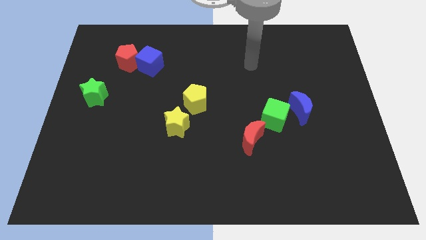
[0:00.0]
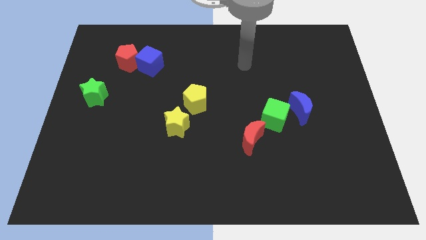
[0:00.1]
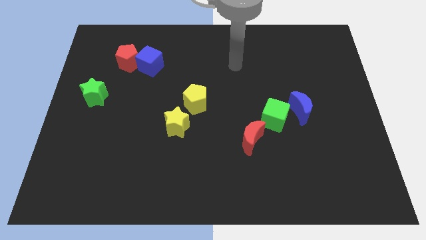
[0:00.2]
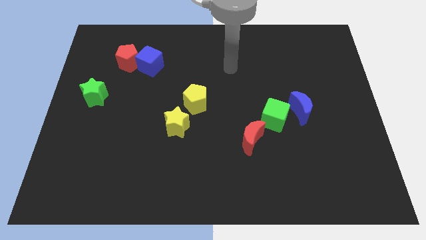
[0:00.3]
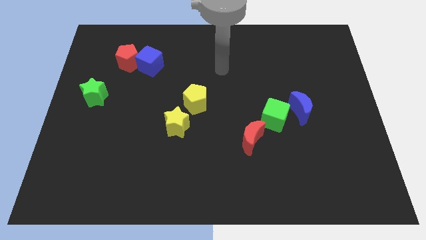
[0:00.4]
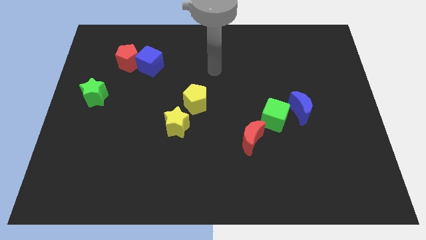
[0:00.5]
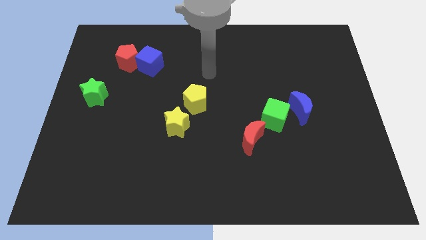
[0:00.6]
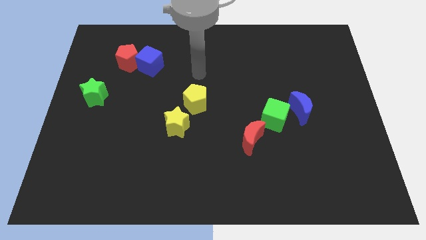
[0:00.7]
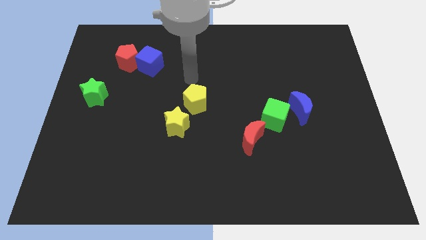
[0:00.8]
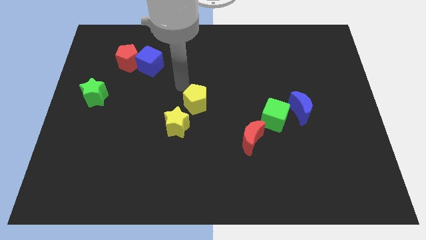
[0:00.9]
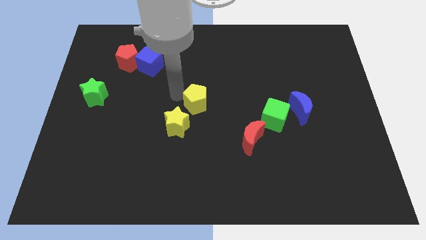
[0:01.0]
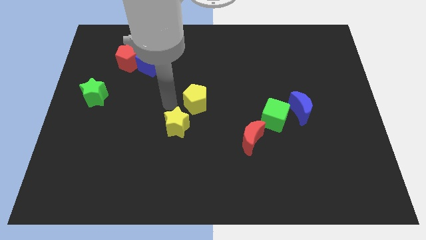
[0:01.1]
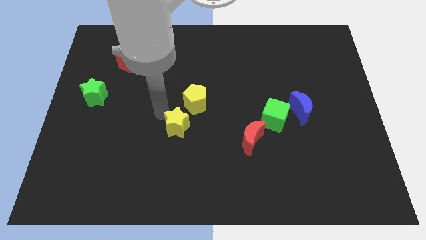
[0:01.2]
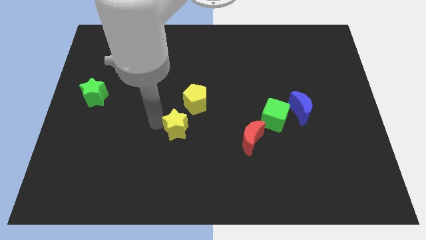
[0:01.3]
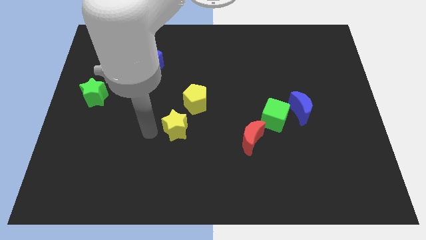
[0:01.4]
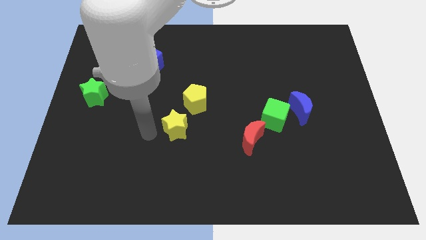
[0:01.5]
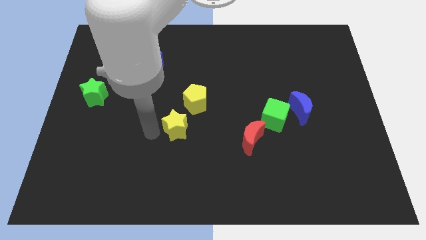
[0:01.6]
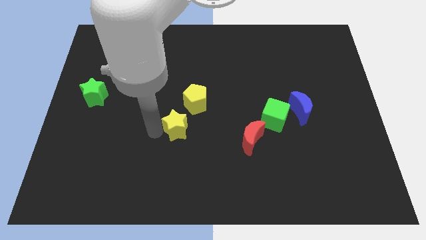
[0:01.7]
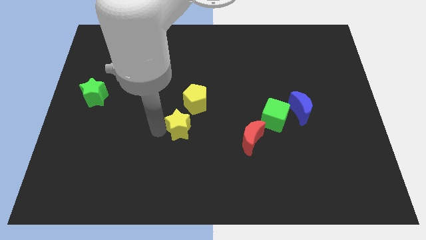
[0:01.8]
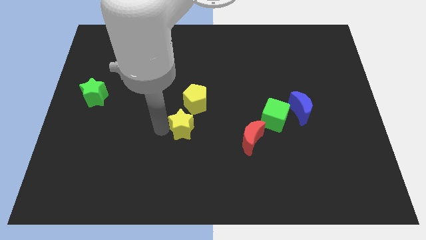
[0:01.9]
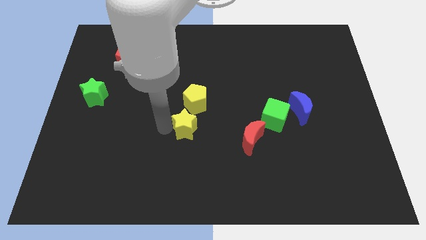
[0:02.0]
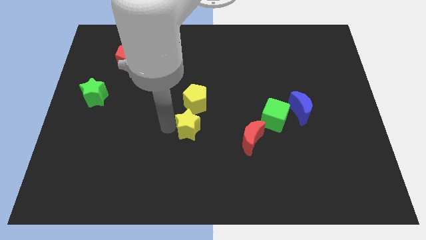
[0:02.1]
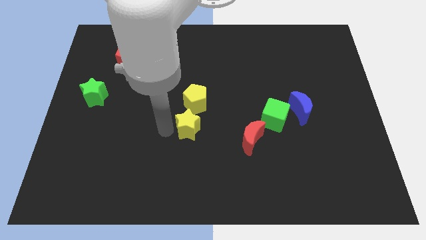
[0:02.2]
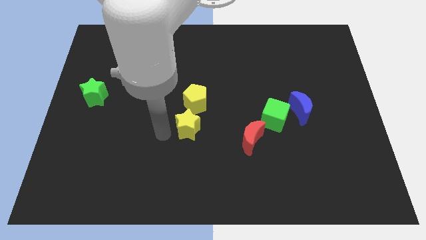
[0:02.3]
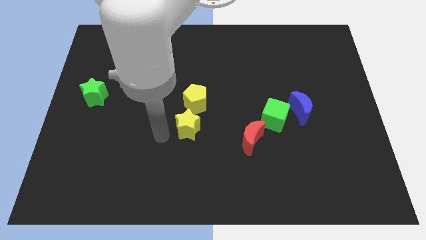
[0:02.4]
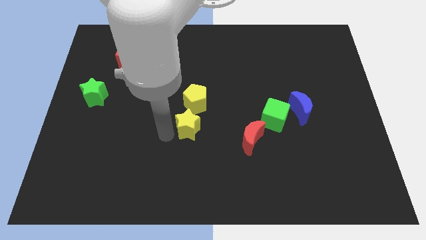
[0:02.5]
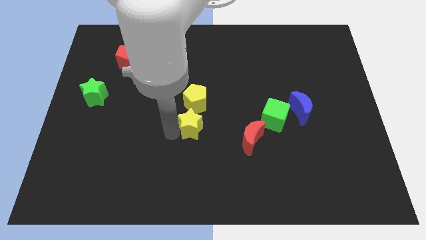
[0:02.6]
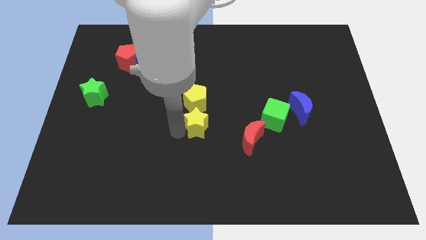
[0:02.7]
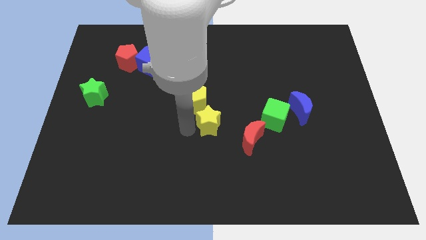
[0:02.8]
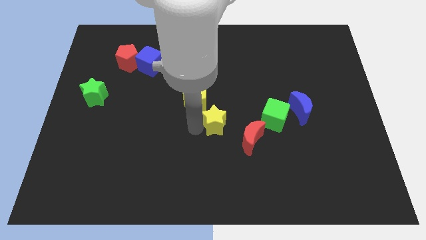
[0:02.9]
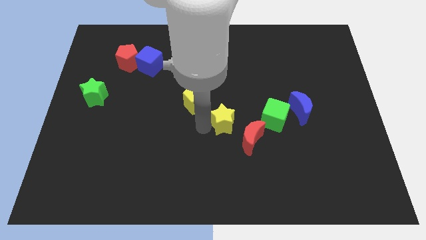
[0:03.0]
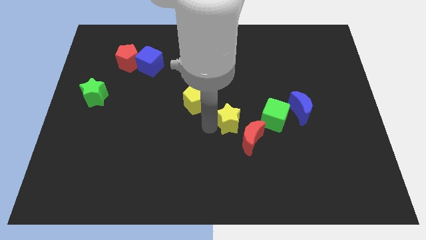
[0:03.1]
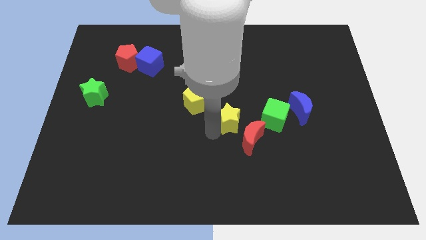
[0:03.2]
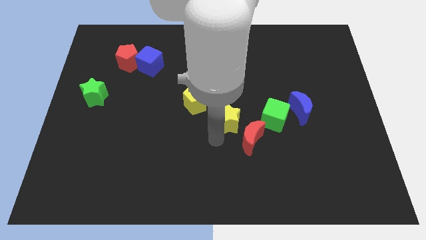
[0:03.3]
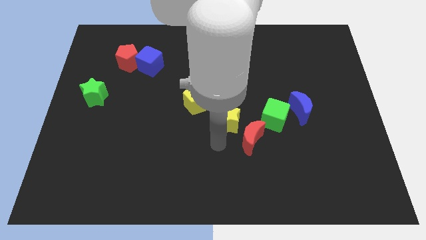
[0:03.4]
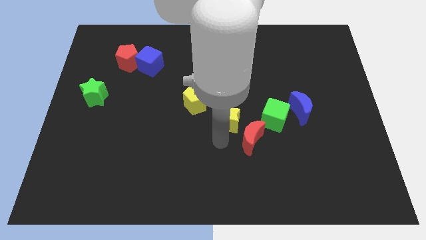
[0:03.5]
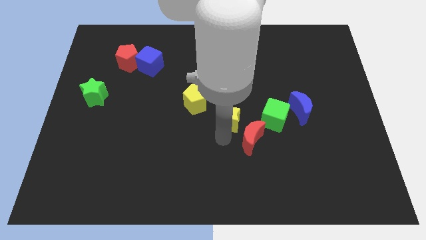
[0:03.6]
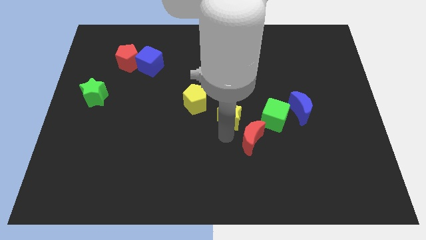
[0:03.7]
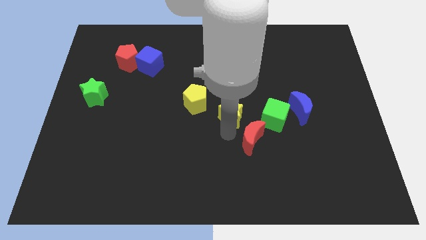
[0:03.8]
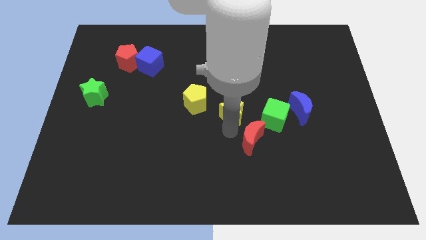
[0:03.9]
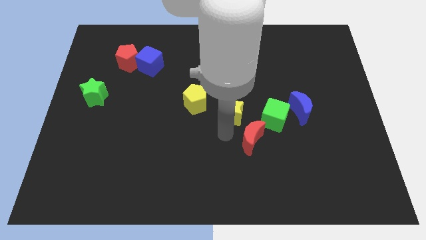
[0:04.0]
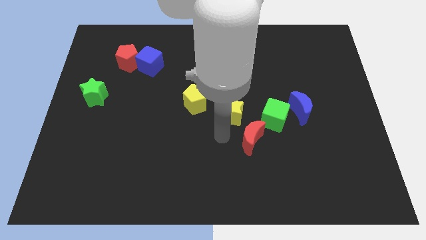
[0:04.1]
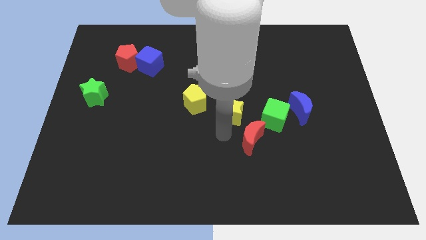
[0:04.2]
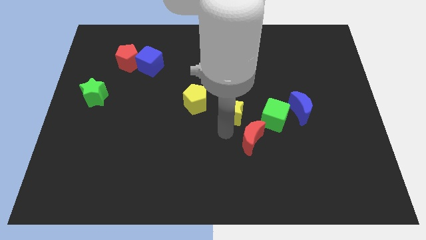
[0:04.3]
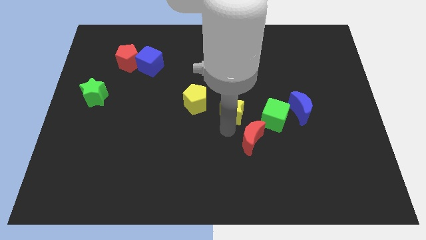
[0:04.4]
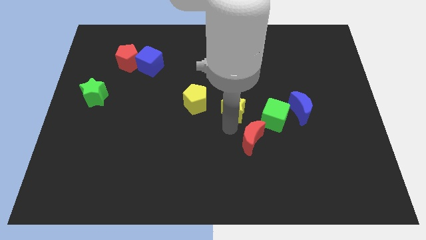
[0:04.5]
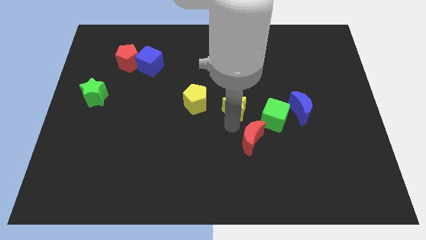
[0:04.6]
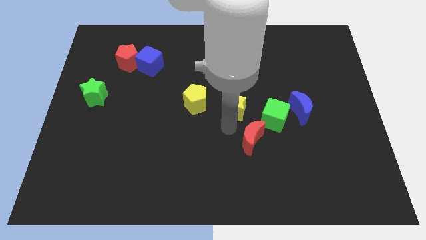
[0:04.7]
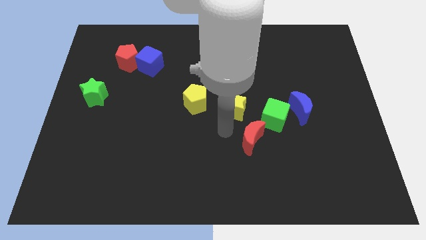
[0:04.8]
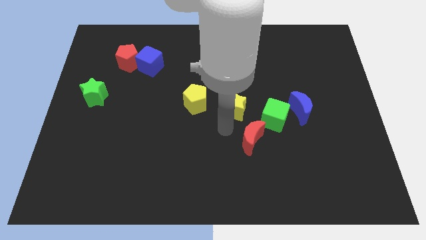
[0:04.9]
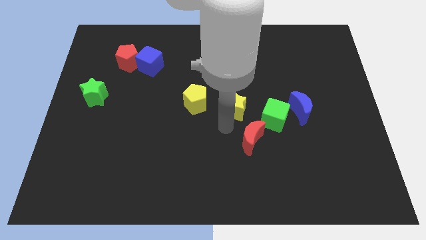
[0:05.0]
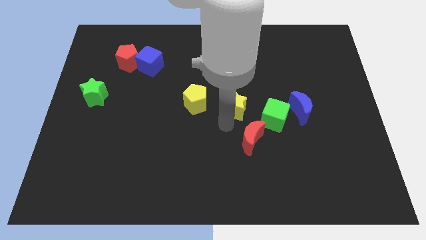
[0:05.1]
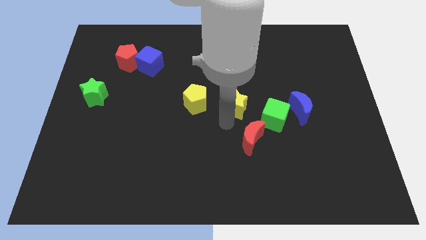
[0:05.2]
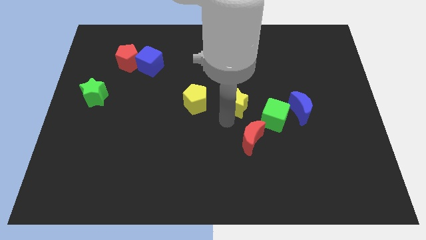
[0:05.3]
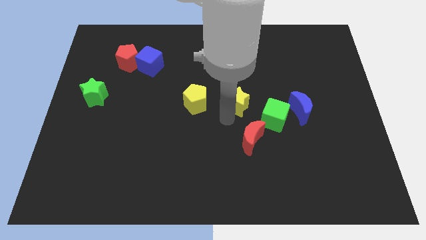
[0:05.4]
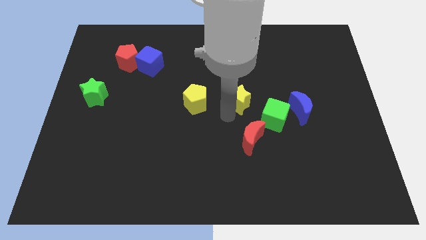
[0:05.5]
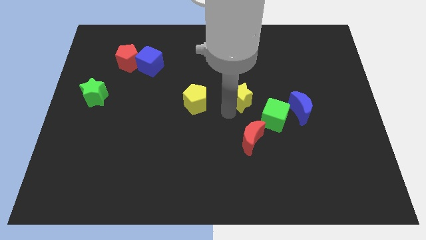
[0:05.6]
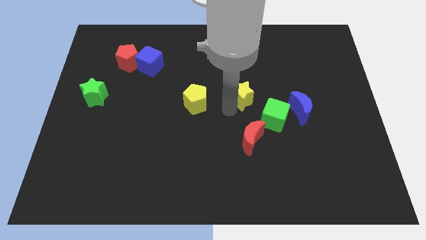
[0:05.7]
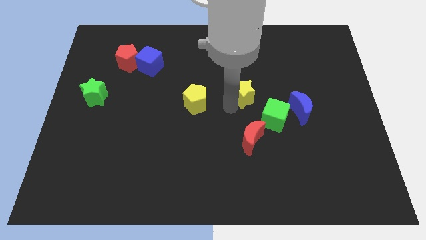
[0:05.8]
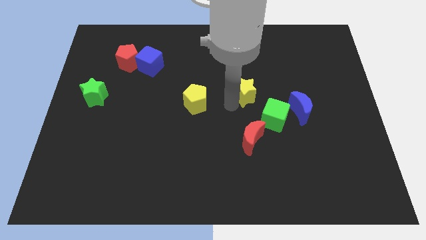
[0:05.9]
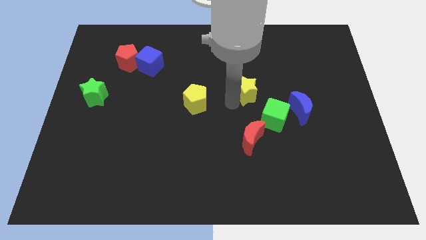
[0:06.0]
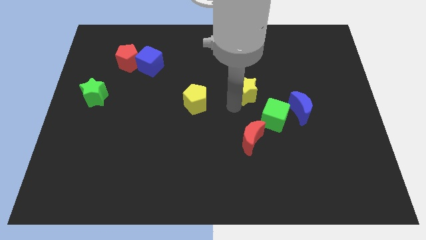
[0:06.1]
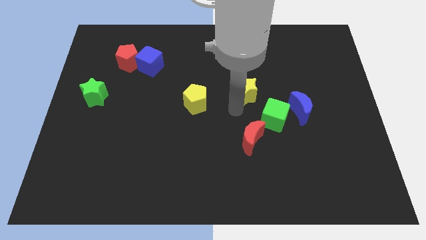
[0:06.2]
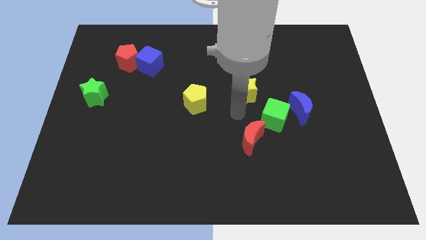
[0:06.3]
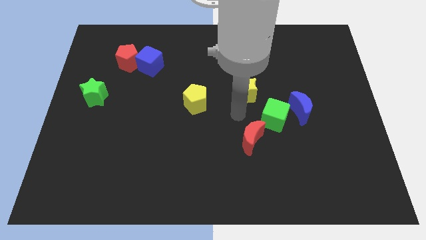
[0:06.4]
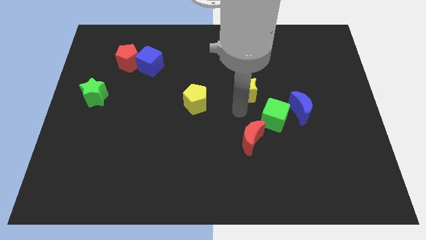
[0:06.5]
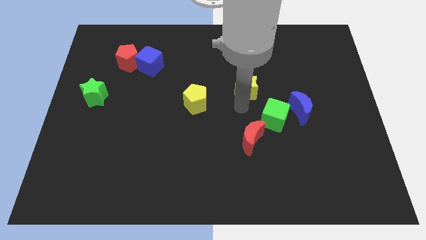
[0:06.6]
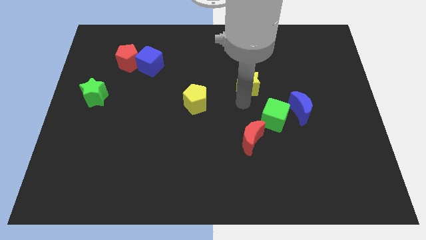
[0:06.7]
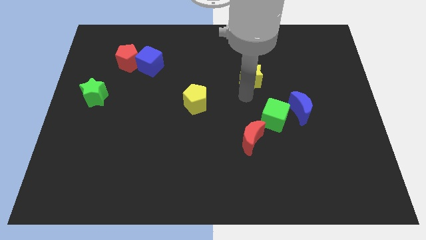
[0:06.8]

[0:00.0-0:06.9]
slide the yellow star up and right diagonally

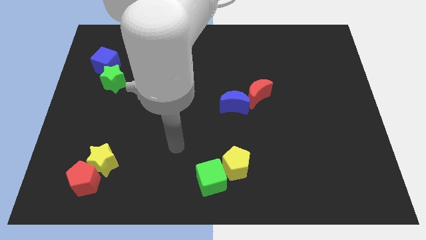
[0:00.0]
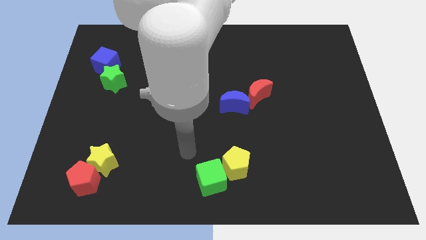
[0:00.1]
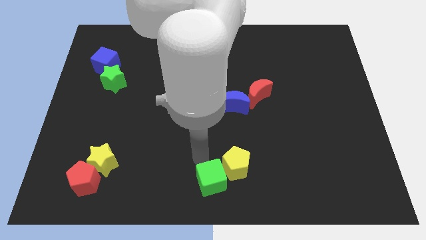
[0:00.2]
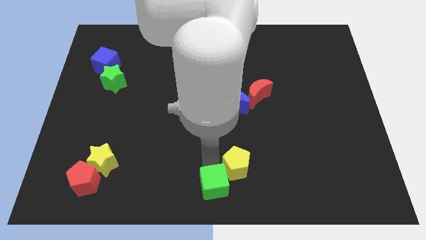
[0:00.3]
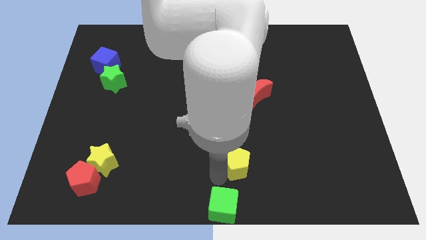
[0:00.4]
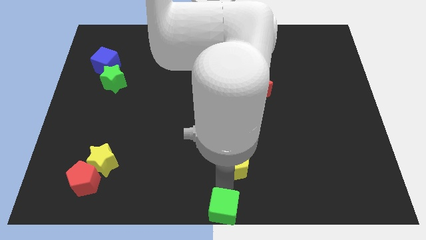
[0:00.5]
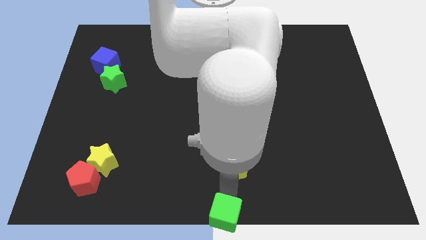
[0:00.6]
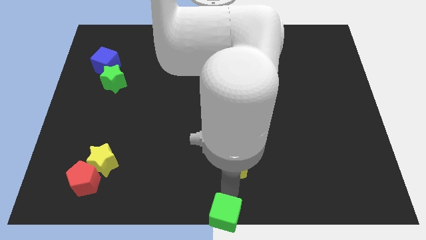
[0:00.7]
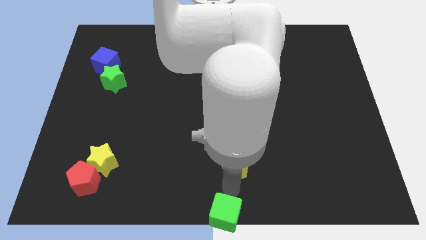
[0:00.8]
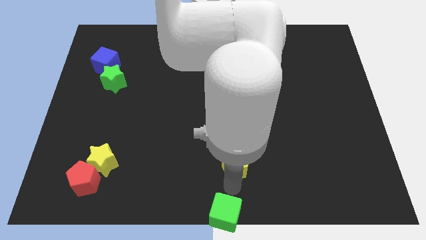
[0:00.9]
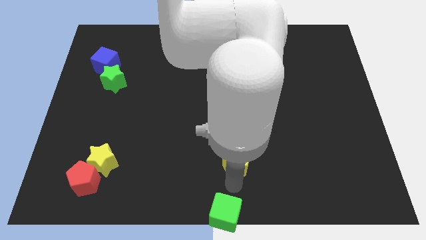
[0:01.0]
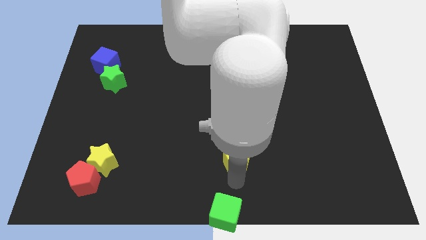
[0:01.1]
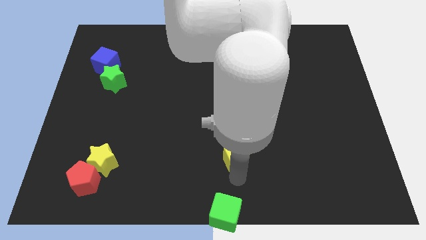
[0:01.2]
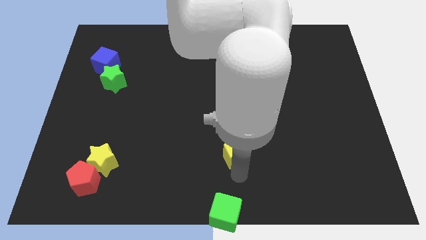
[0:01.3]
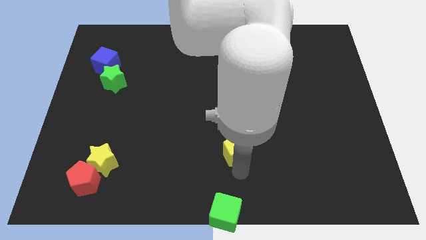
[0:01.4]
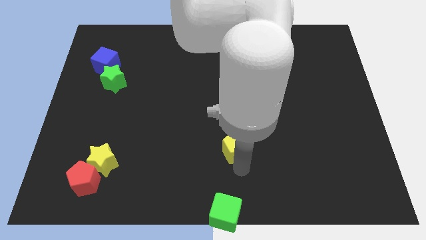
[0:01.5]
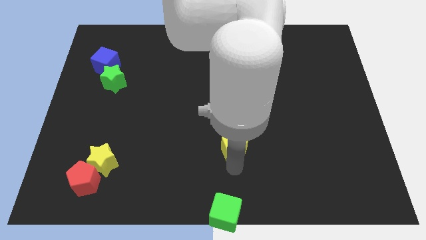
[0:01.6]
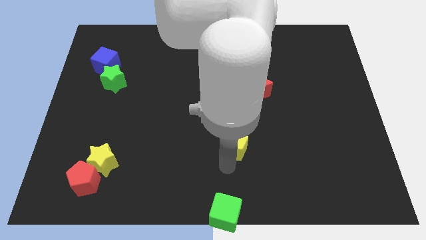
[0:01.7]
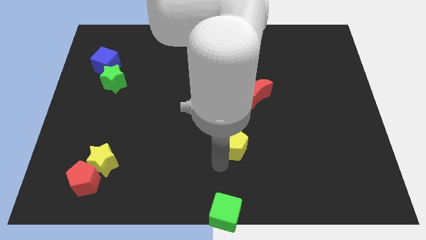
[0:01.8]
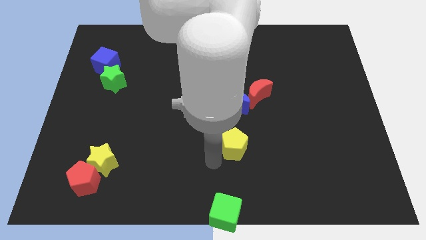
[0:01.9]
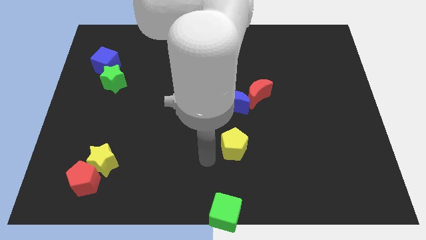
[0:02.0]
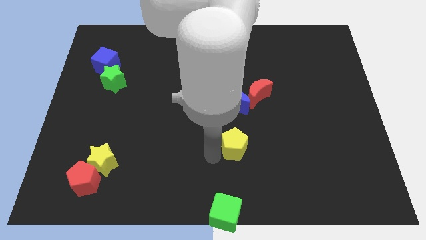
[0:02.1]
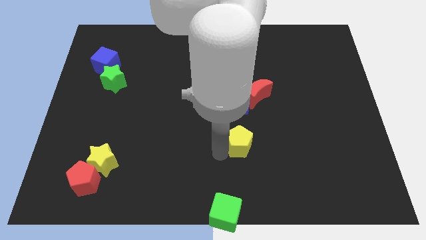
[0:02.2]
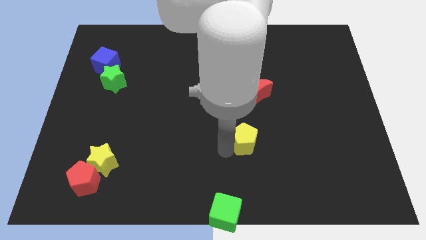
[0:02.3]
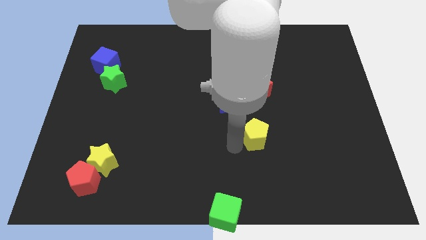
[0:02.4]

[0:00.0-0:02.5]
slide the yellow pentagon a bit diagonally up and right
